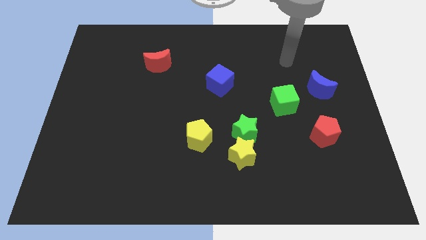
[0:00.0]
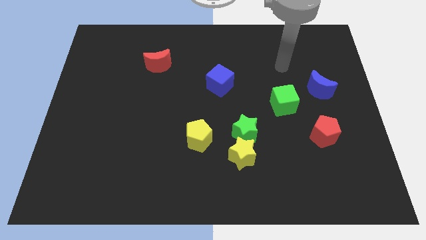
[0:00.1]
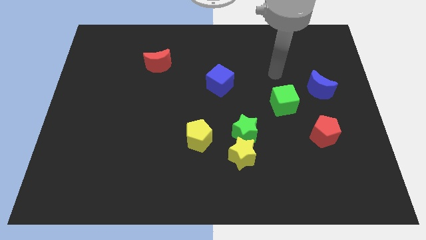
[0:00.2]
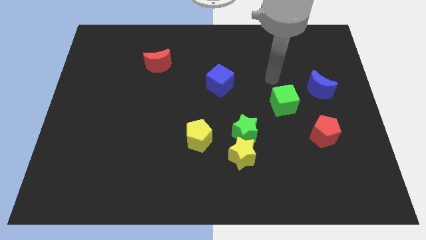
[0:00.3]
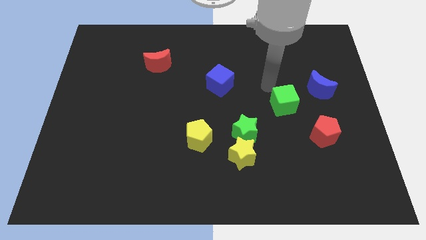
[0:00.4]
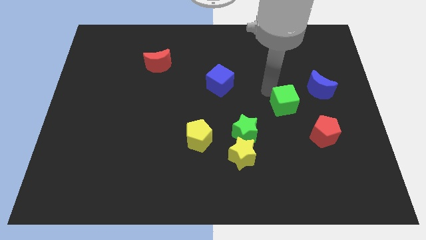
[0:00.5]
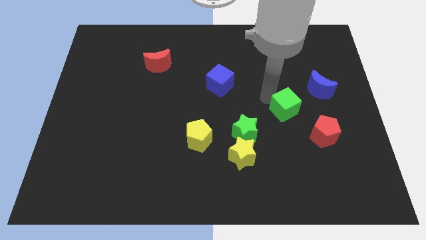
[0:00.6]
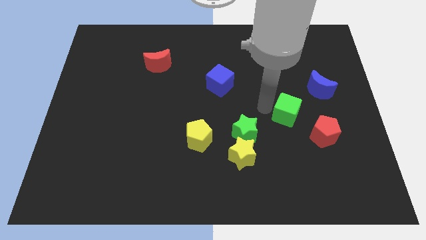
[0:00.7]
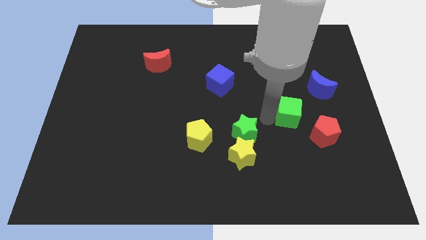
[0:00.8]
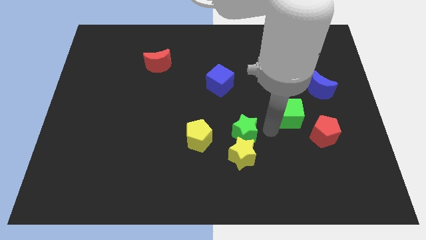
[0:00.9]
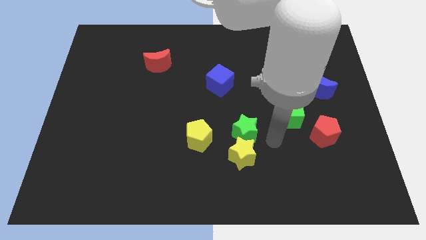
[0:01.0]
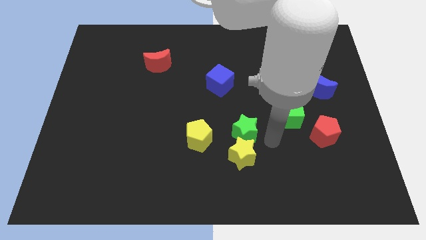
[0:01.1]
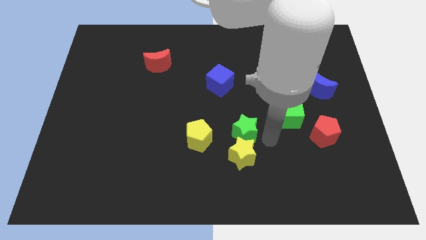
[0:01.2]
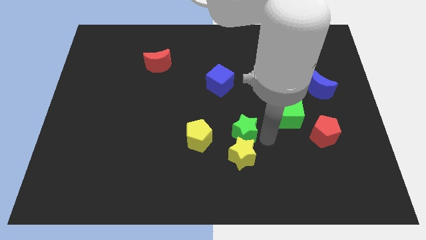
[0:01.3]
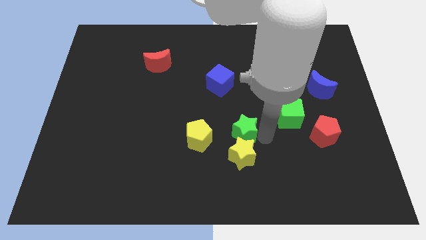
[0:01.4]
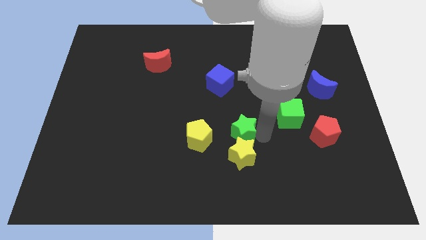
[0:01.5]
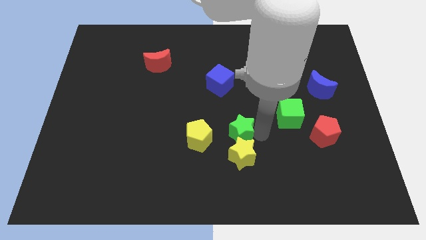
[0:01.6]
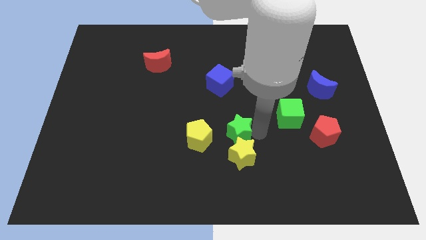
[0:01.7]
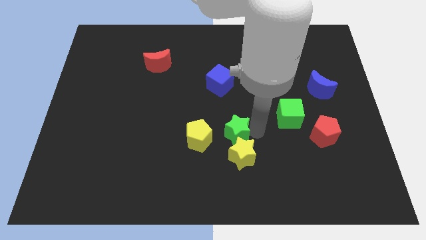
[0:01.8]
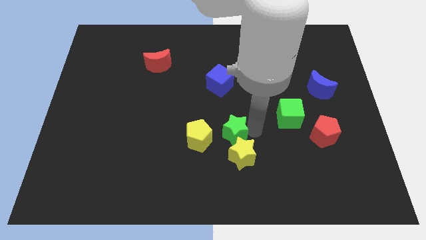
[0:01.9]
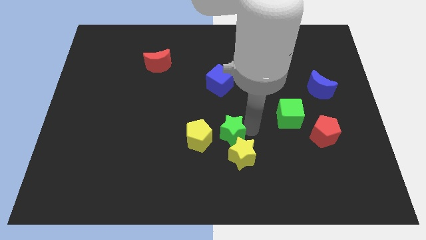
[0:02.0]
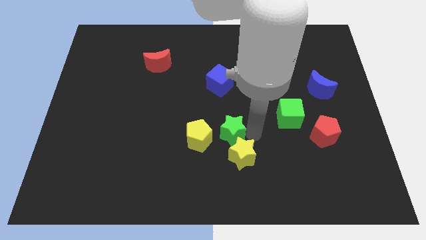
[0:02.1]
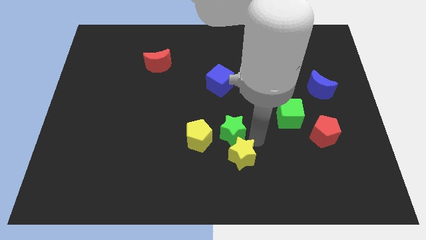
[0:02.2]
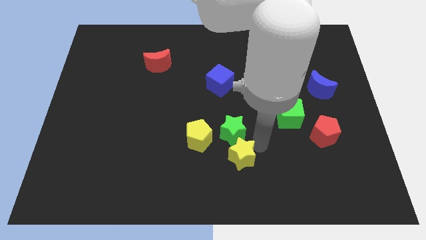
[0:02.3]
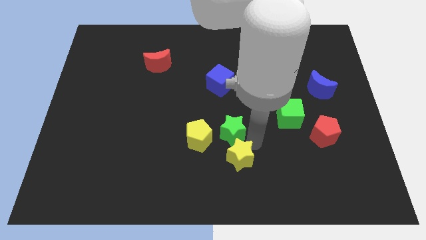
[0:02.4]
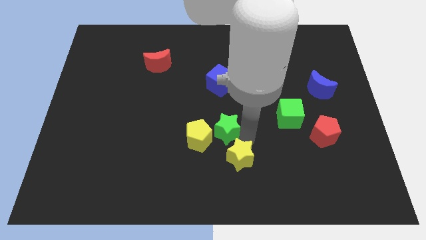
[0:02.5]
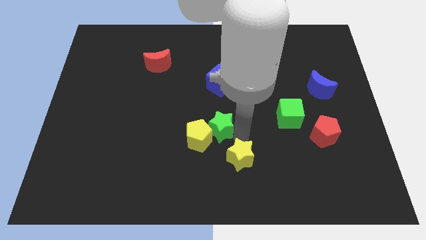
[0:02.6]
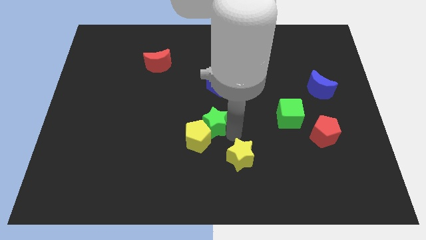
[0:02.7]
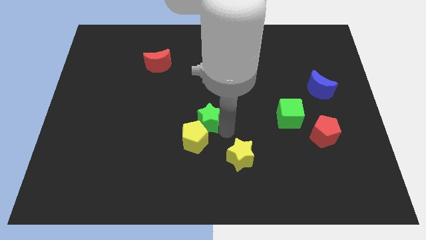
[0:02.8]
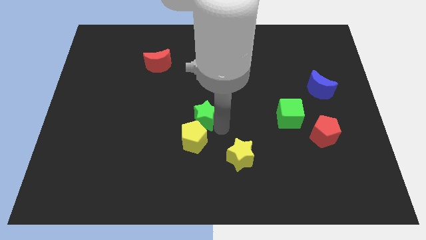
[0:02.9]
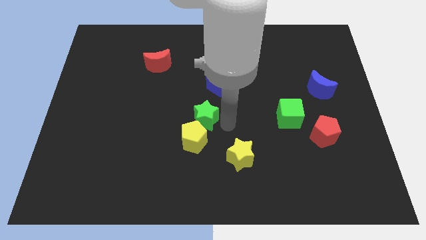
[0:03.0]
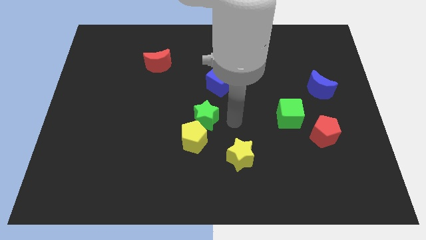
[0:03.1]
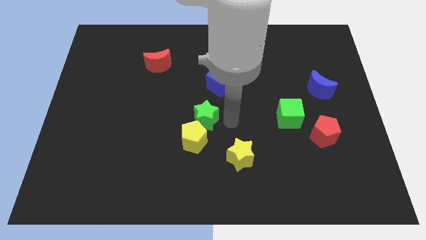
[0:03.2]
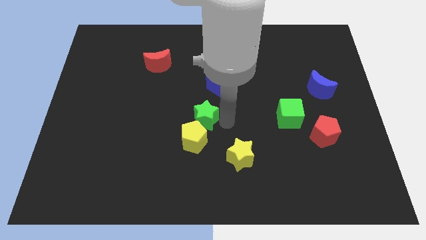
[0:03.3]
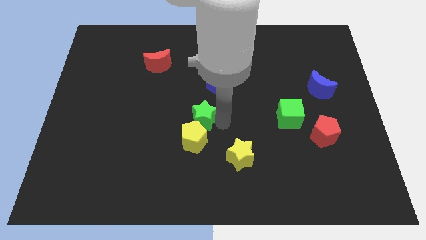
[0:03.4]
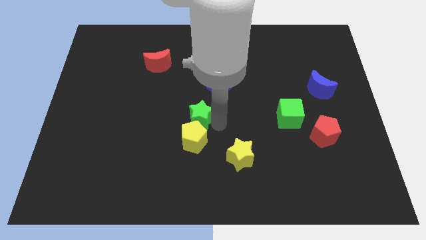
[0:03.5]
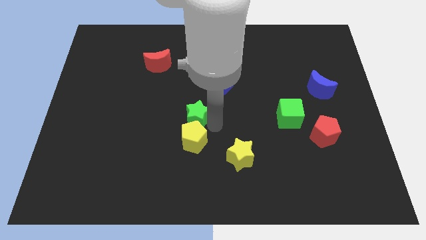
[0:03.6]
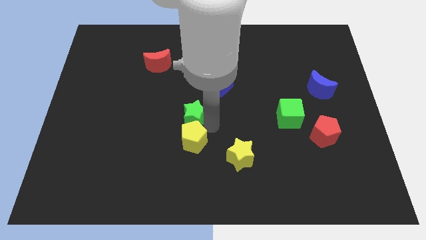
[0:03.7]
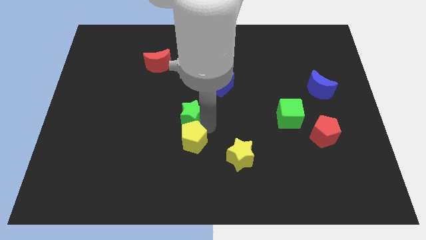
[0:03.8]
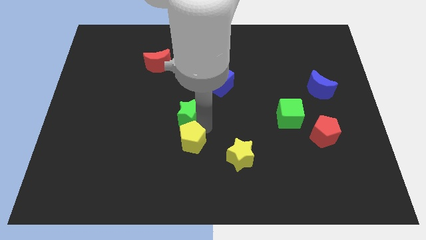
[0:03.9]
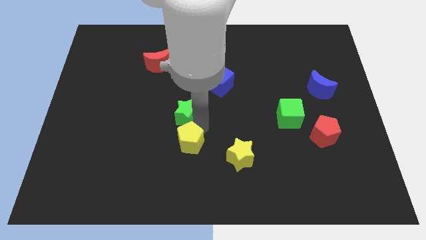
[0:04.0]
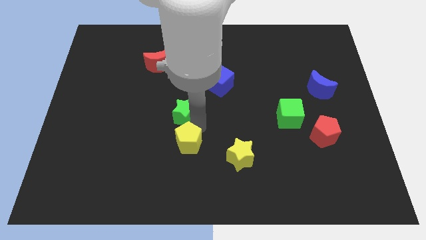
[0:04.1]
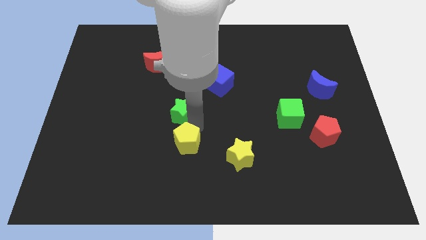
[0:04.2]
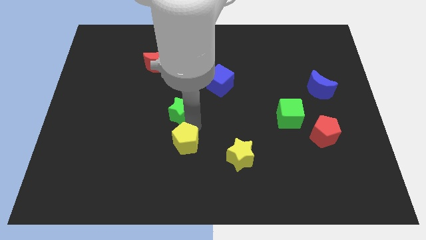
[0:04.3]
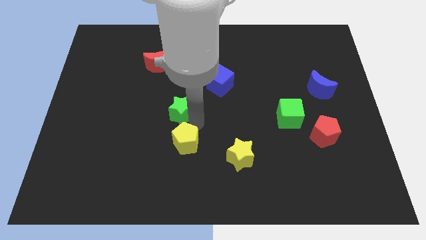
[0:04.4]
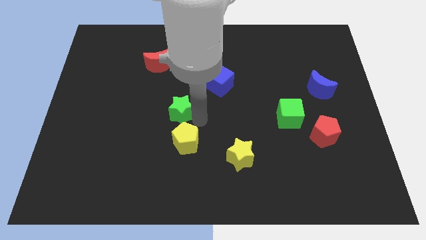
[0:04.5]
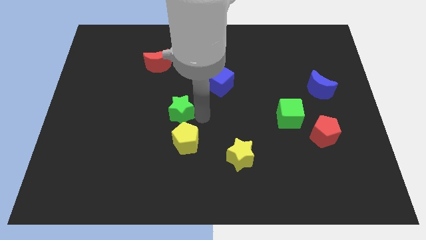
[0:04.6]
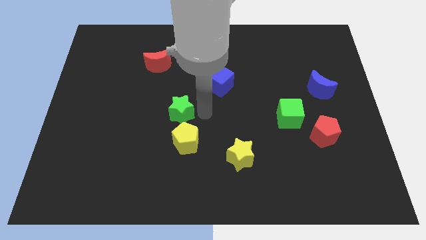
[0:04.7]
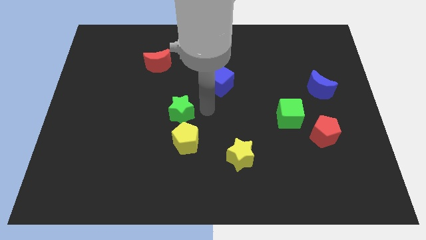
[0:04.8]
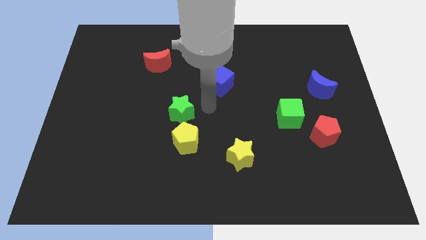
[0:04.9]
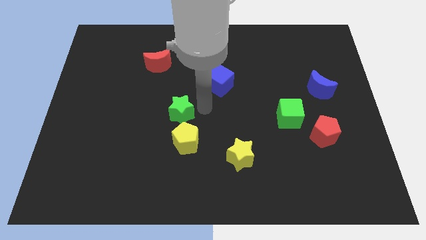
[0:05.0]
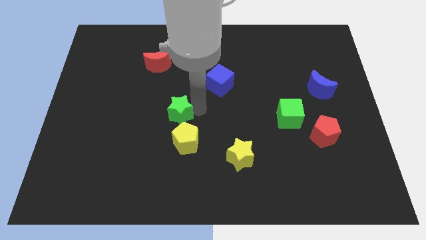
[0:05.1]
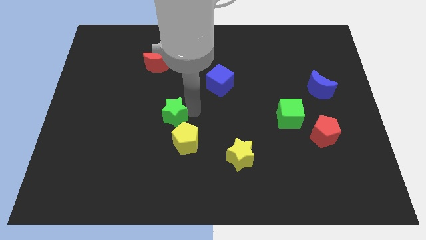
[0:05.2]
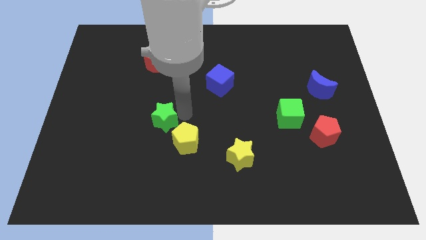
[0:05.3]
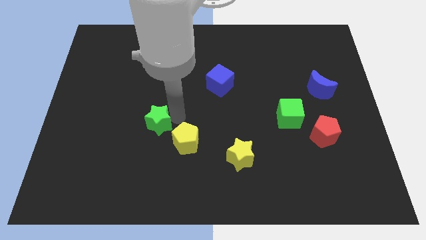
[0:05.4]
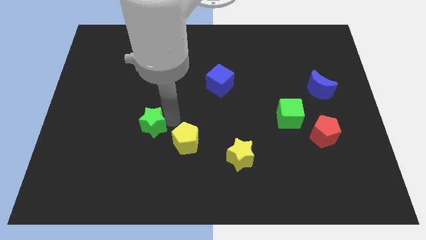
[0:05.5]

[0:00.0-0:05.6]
slide the green star to the left

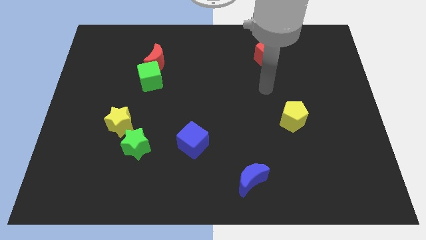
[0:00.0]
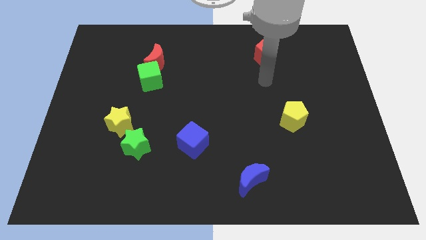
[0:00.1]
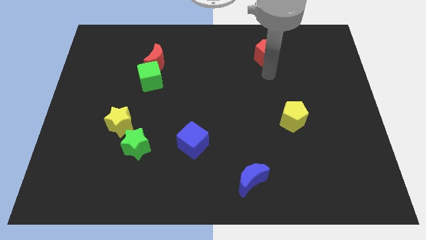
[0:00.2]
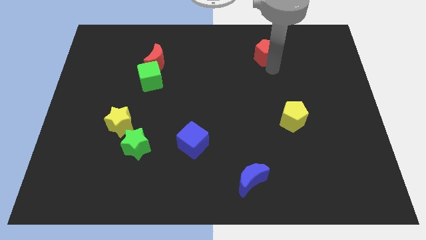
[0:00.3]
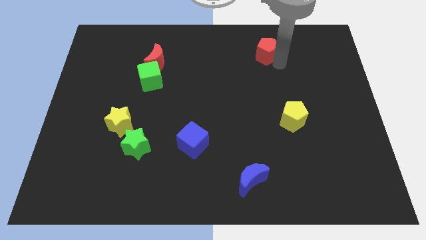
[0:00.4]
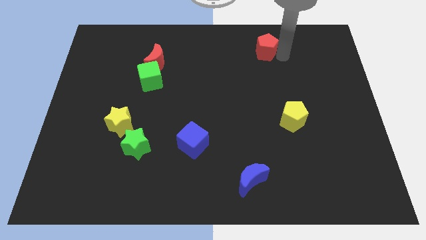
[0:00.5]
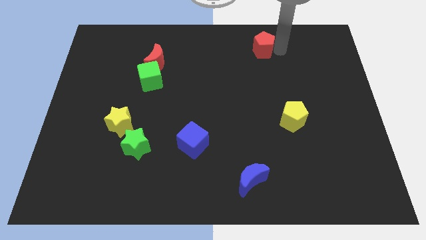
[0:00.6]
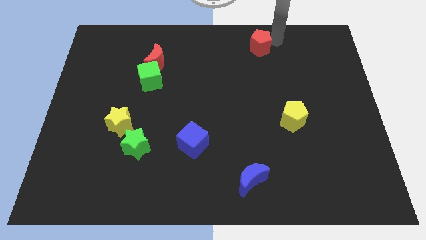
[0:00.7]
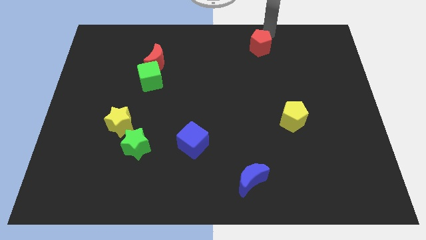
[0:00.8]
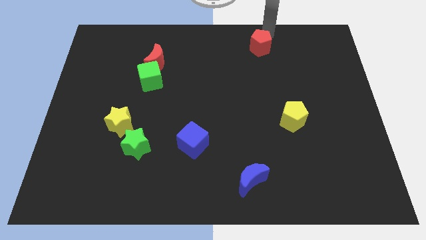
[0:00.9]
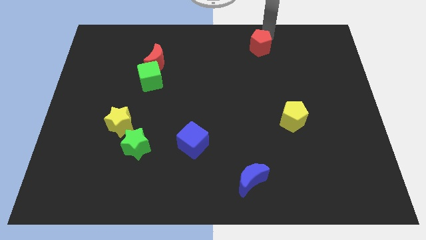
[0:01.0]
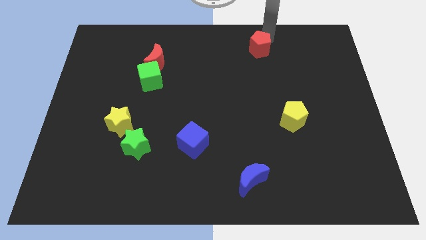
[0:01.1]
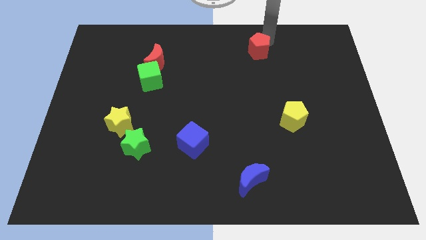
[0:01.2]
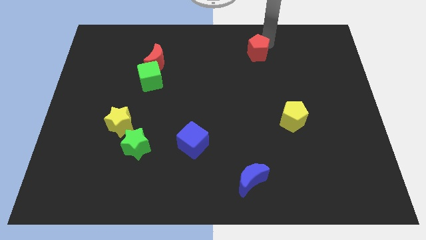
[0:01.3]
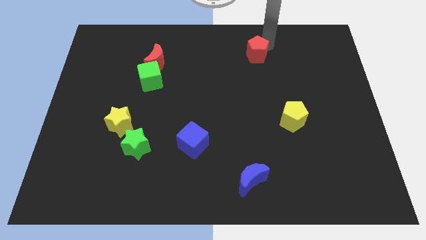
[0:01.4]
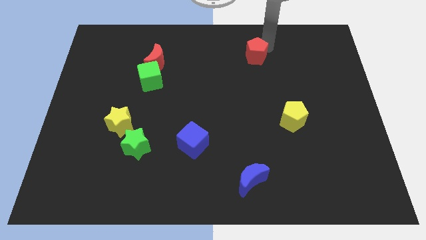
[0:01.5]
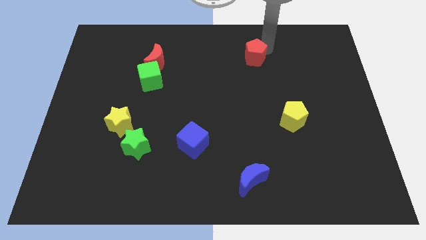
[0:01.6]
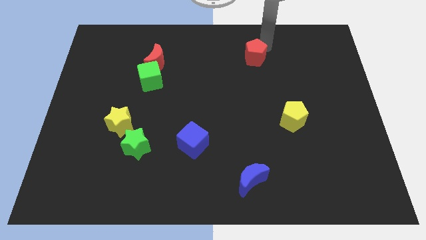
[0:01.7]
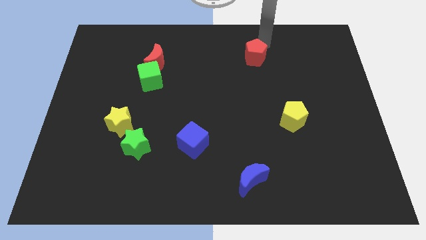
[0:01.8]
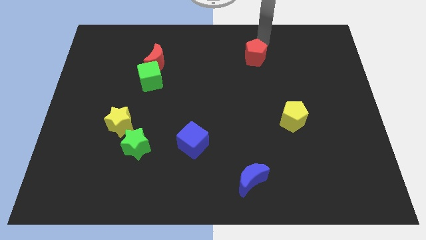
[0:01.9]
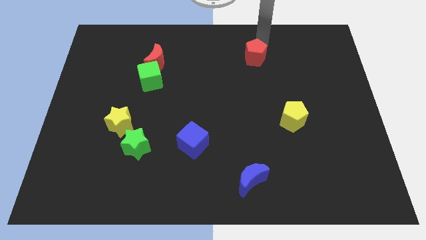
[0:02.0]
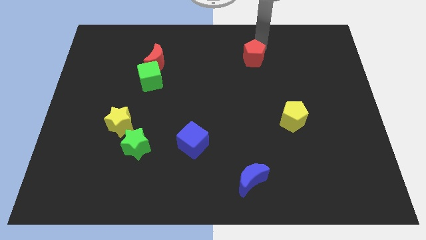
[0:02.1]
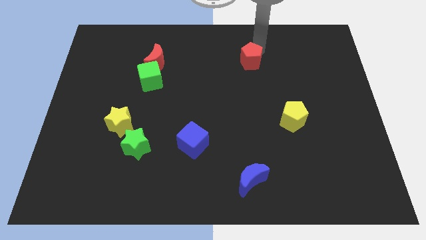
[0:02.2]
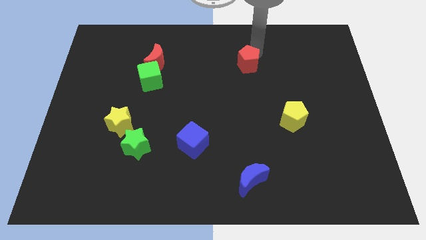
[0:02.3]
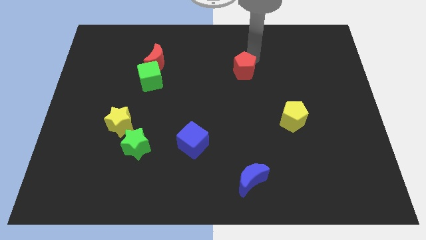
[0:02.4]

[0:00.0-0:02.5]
push the red pentagon downwards and to the left diagonally slightly

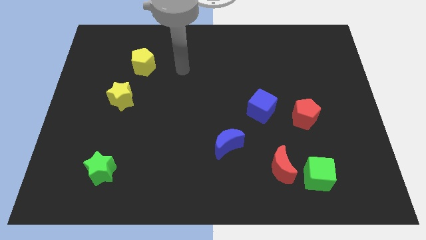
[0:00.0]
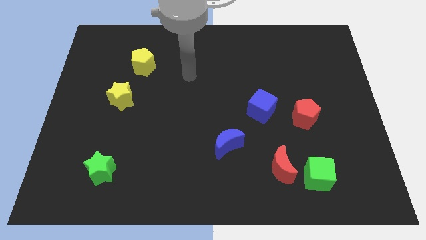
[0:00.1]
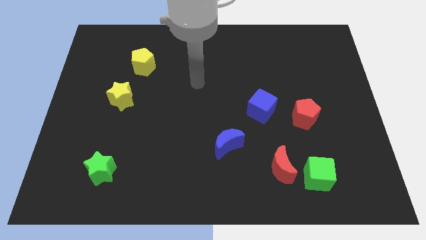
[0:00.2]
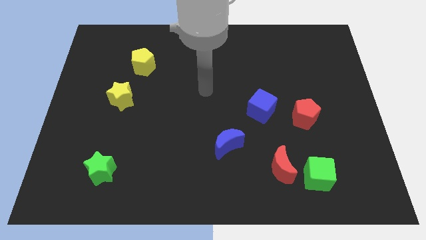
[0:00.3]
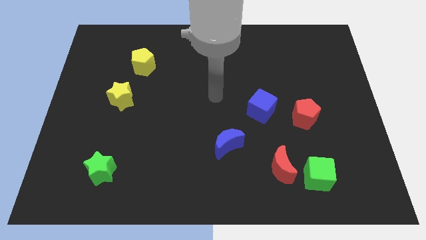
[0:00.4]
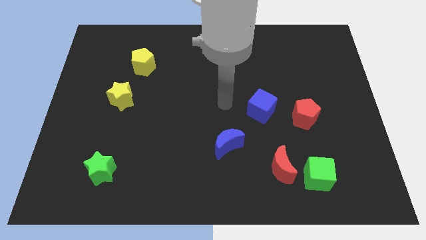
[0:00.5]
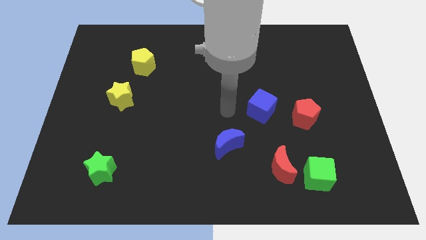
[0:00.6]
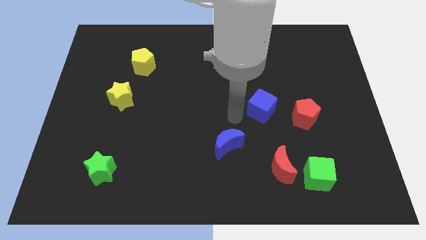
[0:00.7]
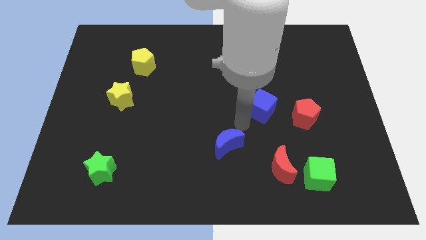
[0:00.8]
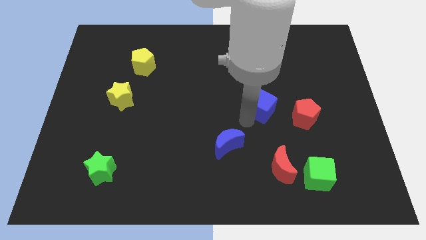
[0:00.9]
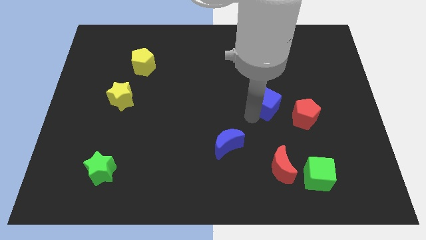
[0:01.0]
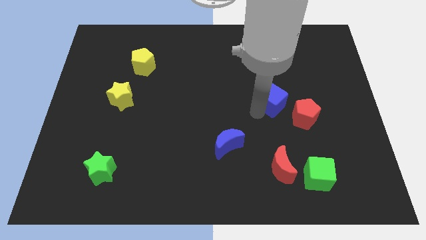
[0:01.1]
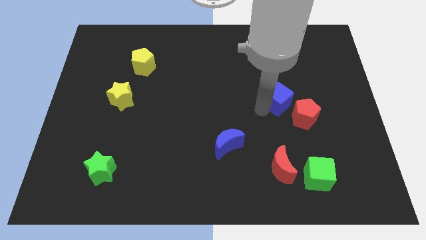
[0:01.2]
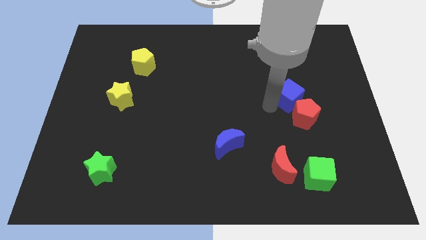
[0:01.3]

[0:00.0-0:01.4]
push the blue cube a little upwards and to the right
